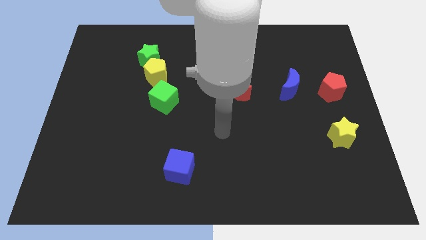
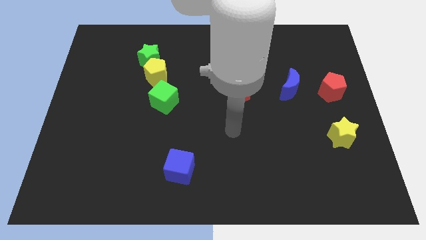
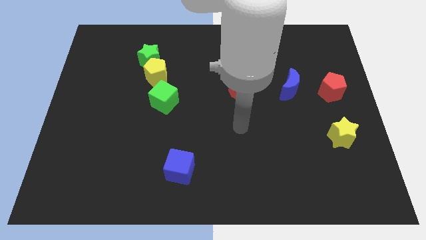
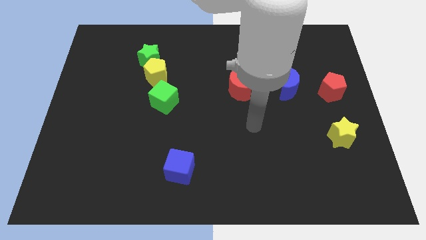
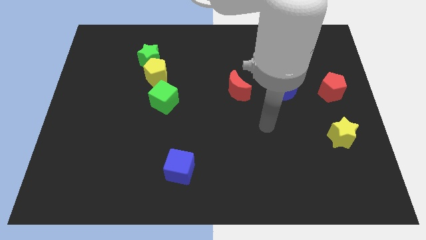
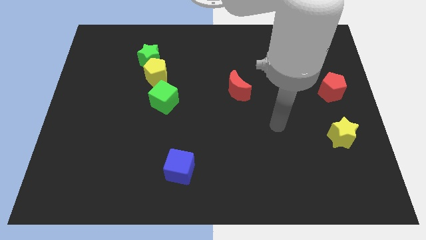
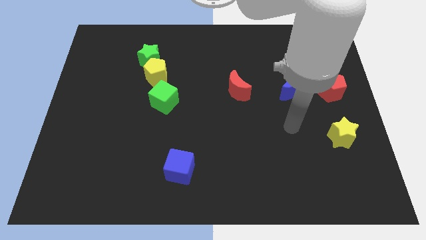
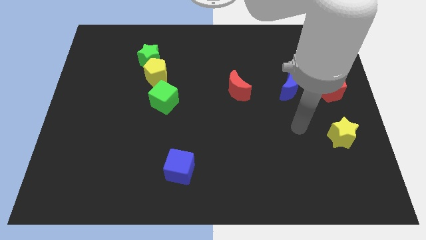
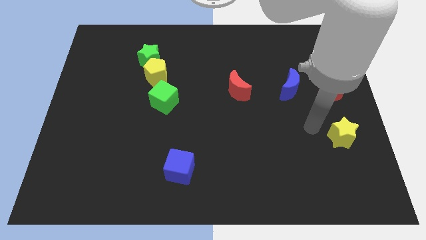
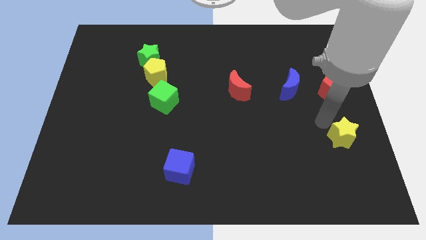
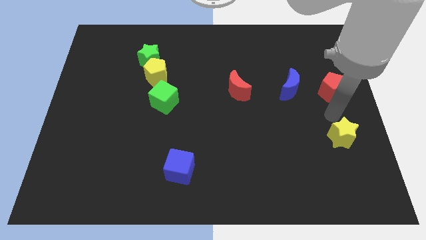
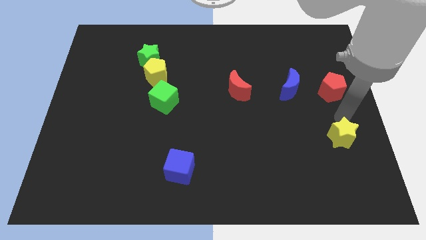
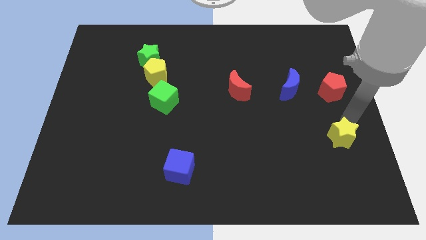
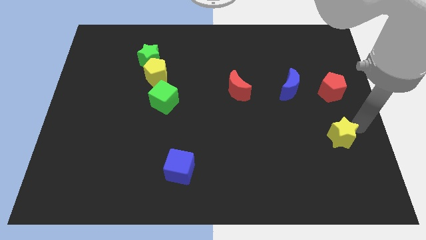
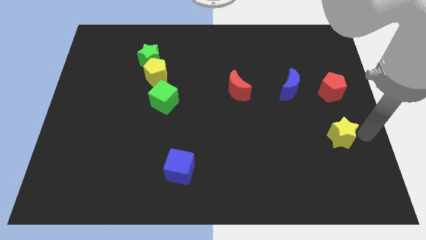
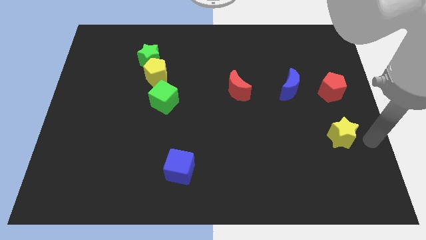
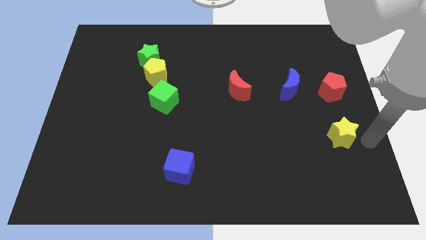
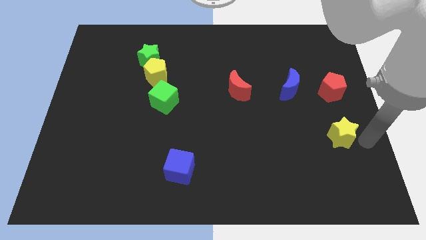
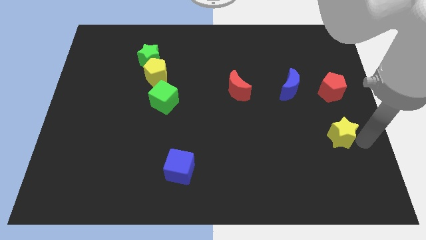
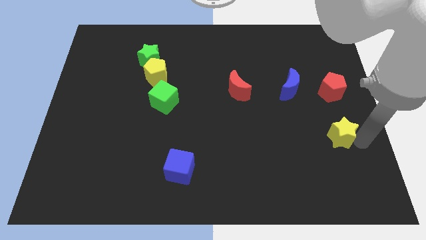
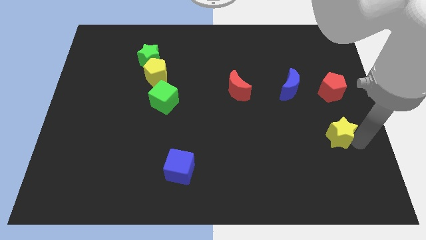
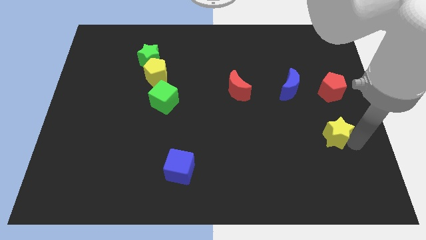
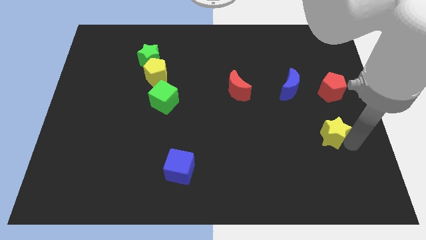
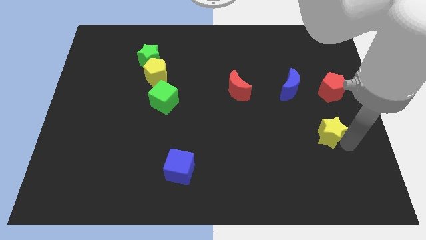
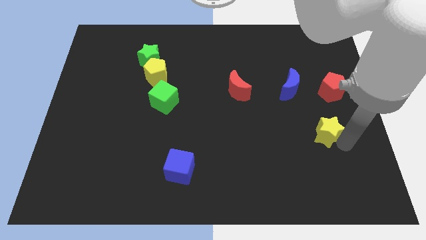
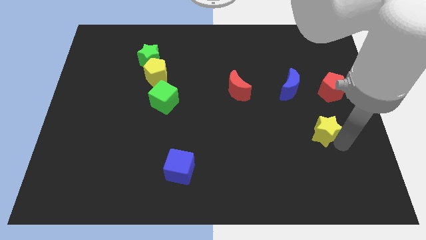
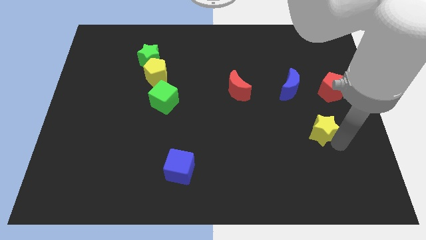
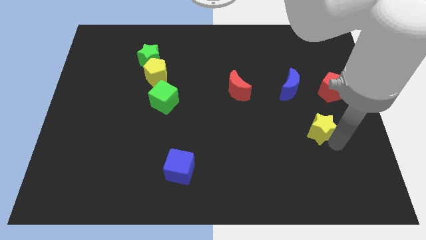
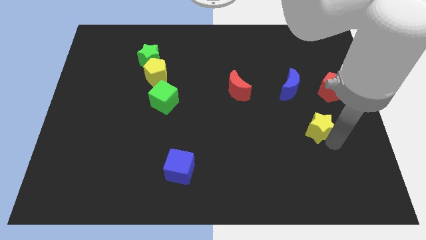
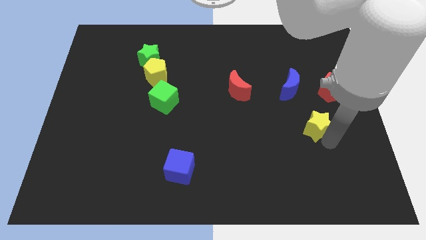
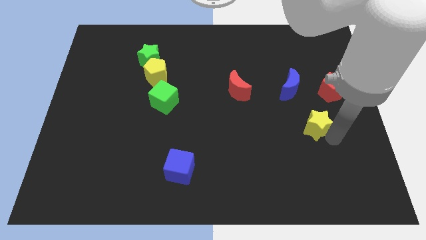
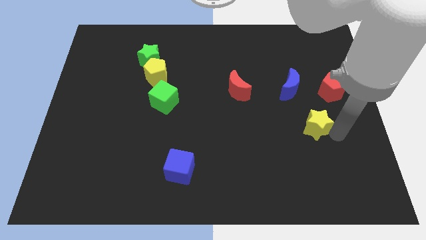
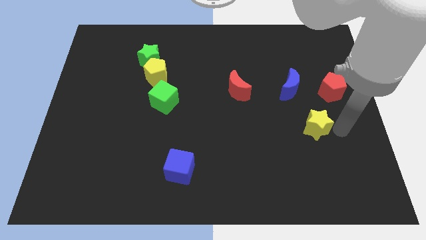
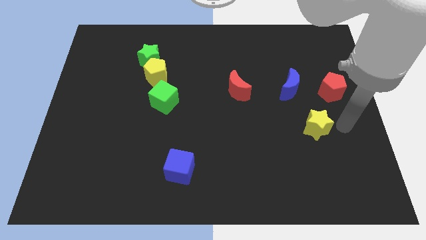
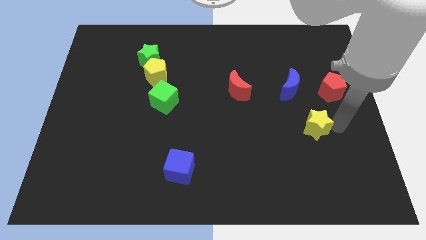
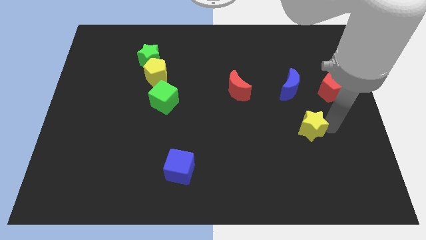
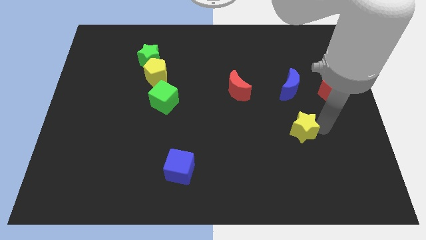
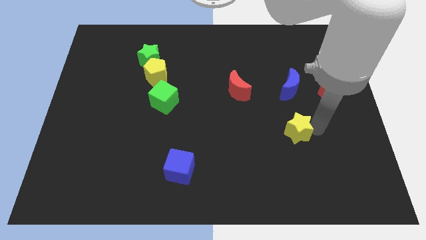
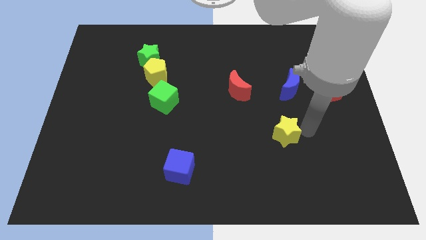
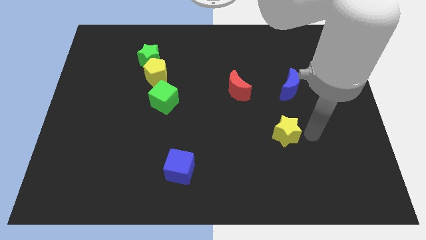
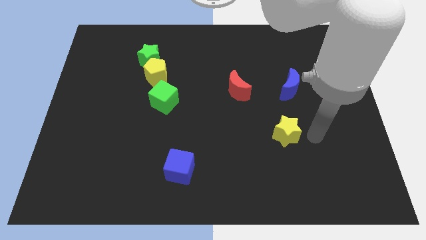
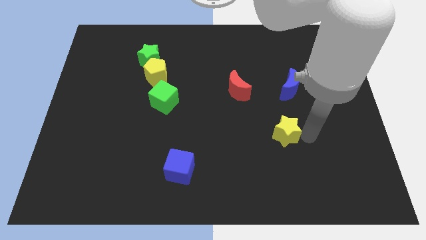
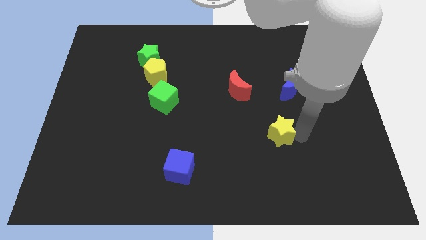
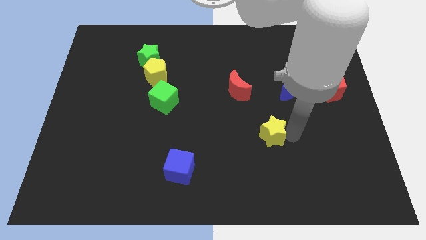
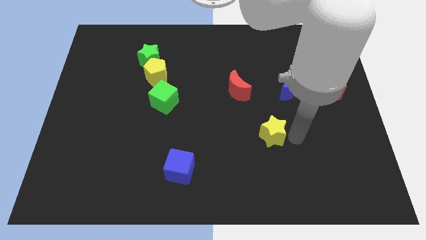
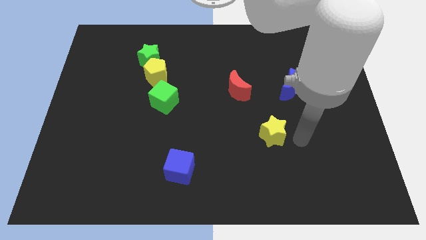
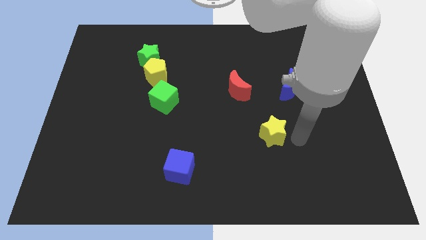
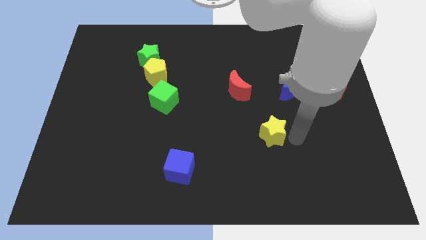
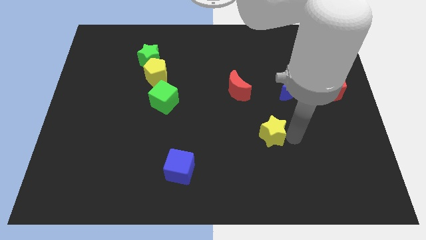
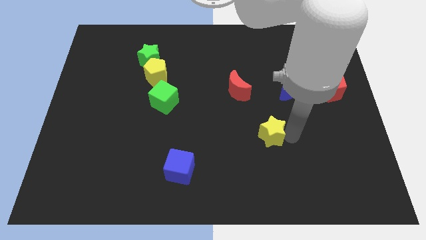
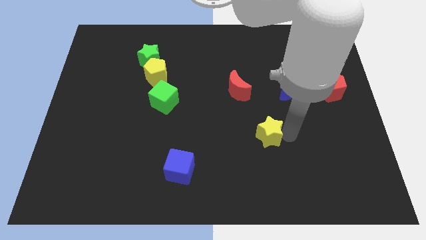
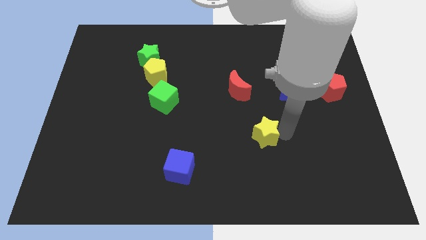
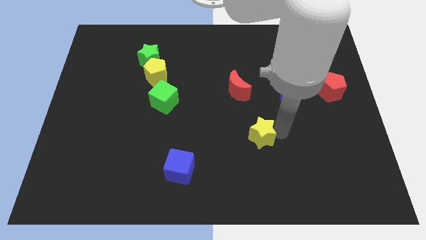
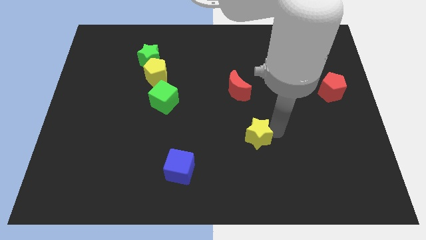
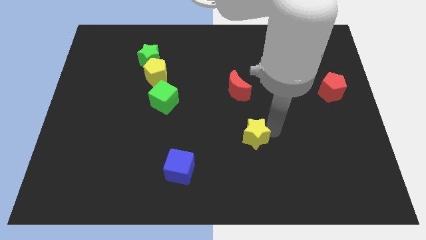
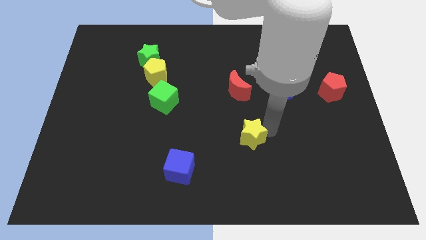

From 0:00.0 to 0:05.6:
move the yellow star to the left

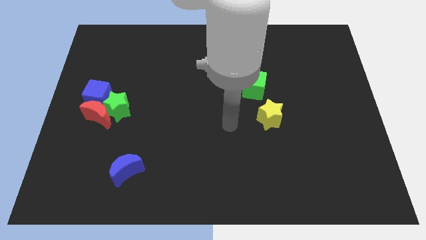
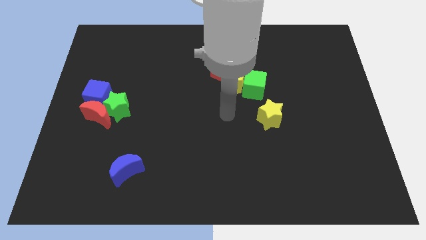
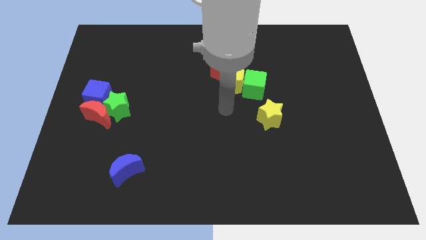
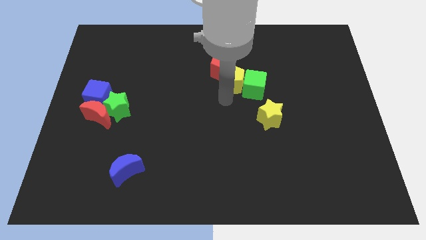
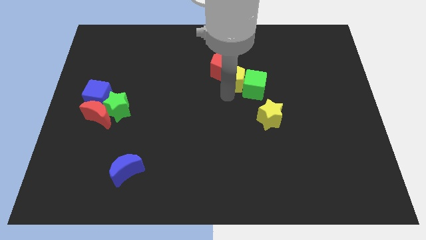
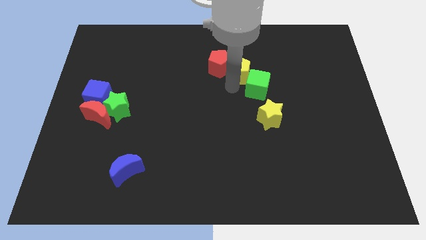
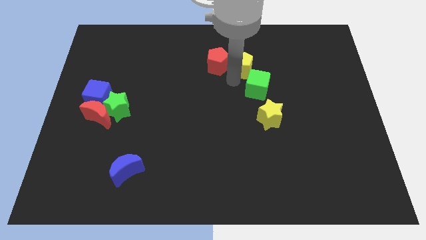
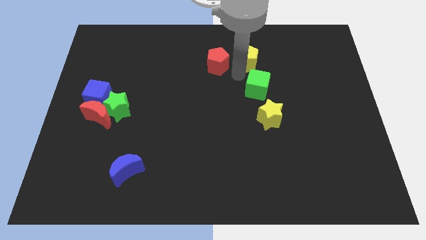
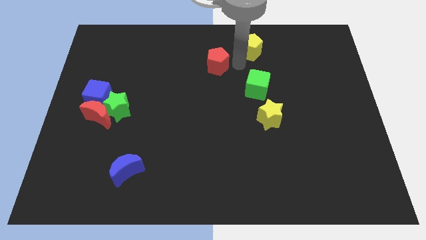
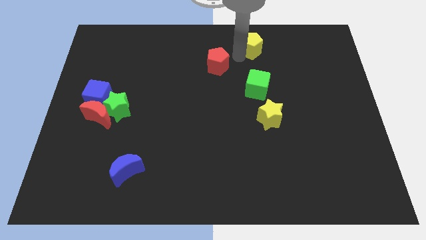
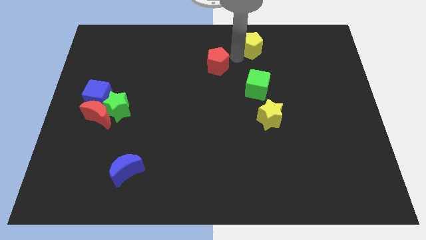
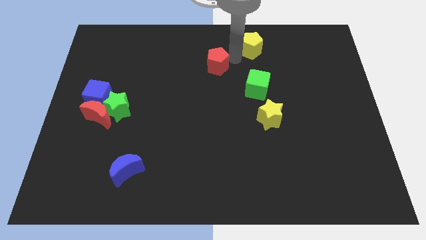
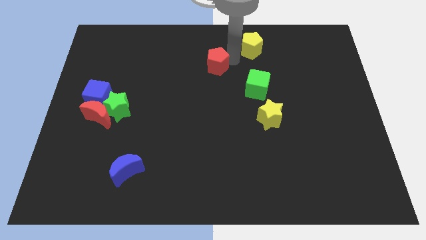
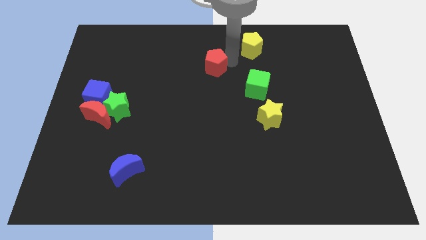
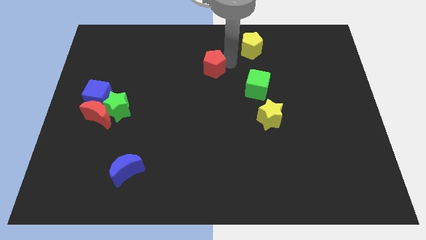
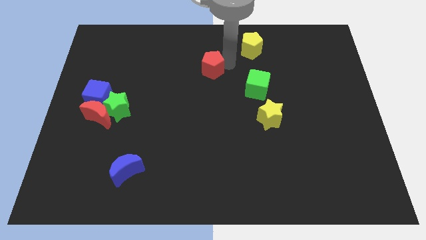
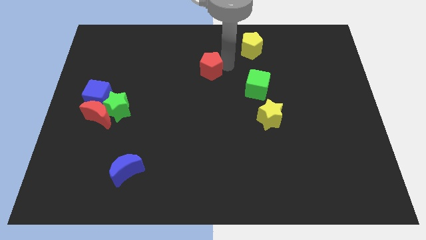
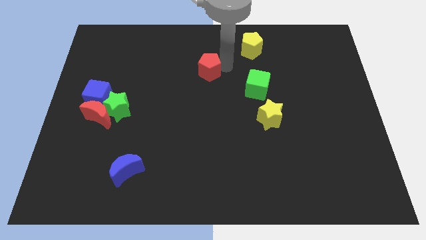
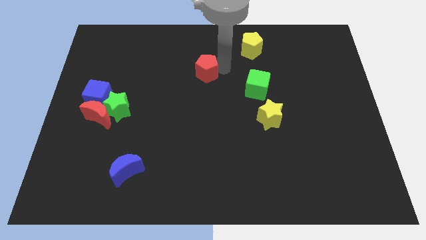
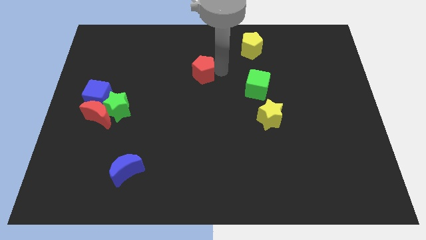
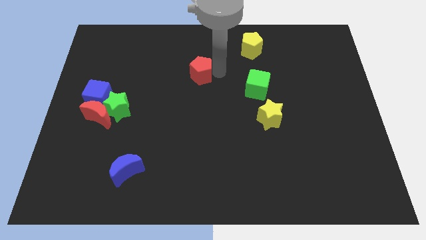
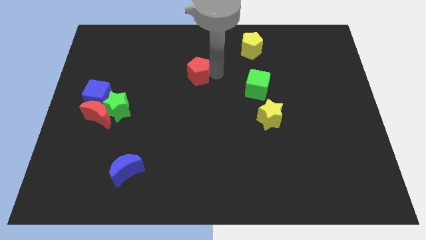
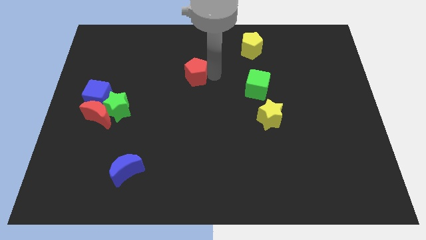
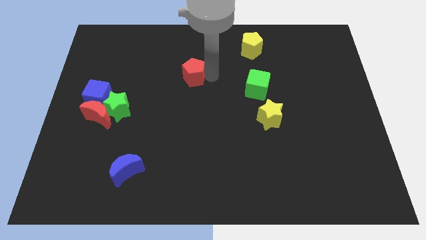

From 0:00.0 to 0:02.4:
push the red pentagon a little bit to the left
